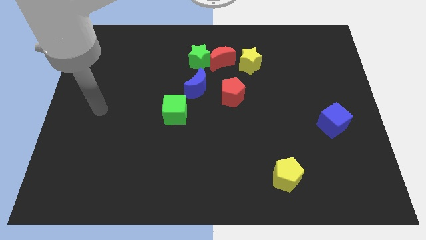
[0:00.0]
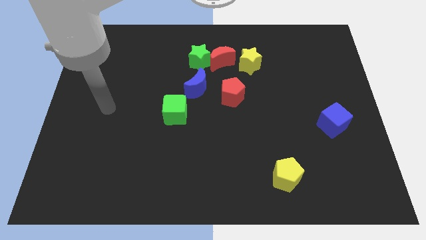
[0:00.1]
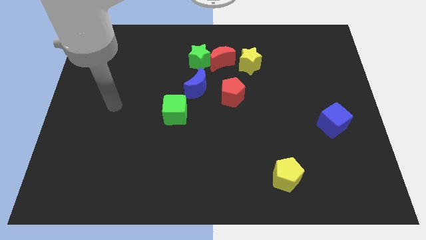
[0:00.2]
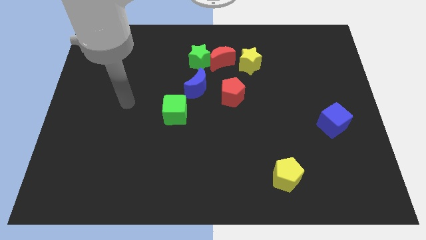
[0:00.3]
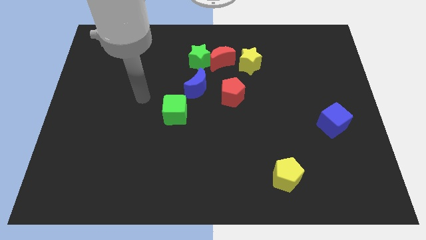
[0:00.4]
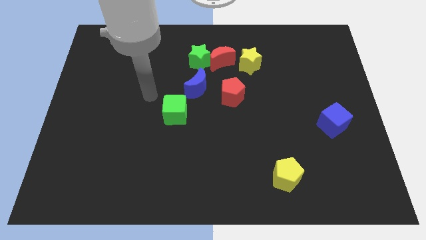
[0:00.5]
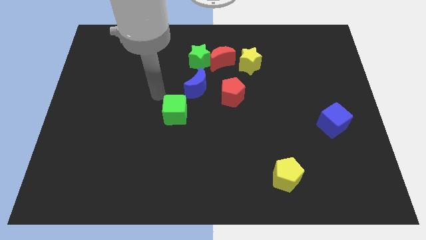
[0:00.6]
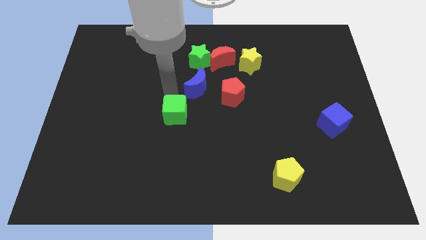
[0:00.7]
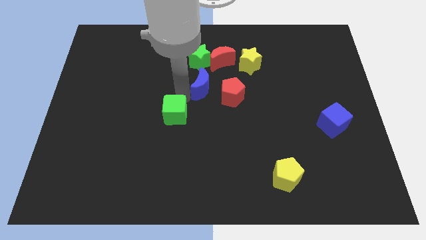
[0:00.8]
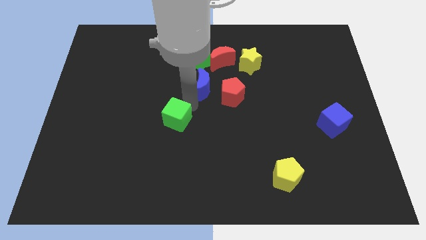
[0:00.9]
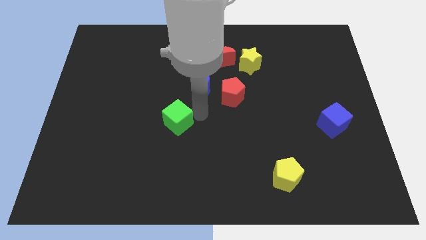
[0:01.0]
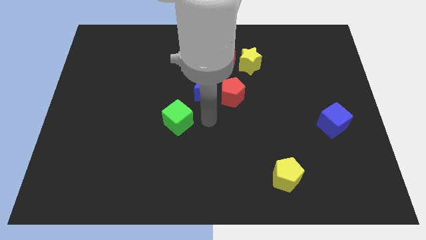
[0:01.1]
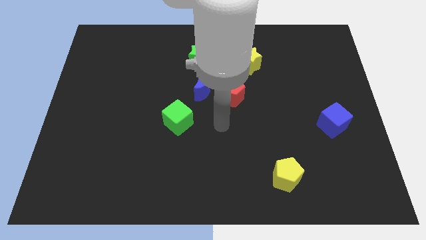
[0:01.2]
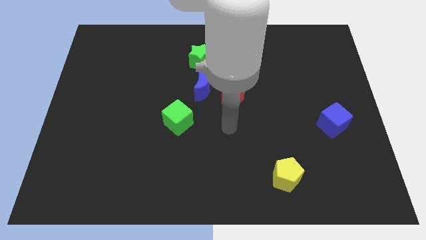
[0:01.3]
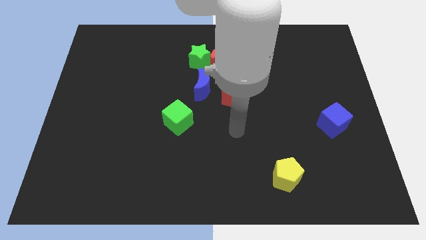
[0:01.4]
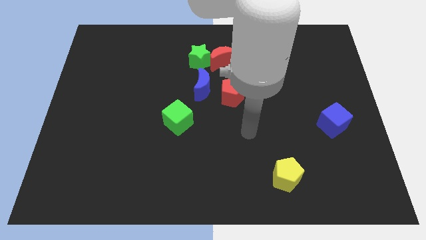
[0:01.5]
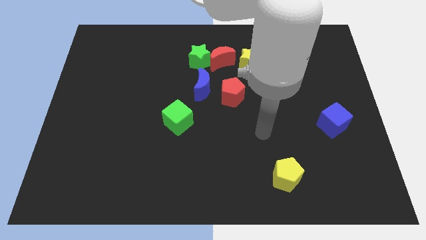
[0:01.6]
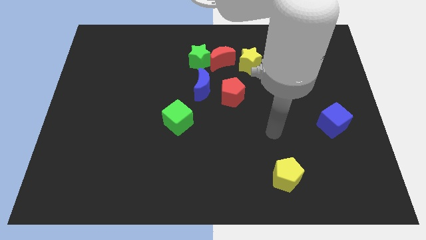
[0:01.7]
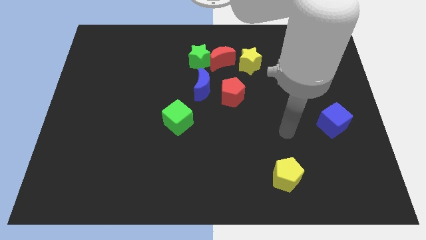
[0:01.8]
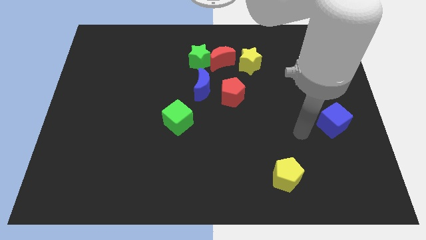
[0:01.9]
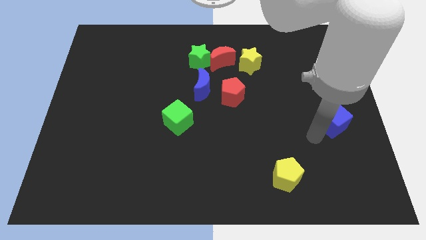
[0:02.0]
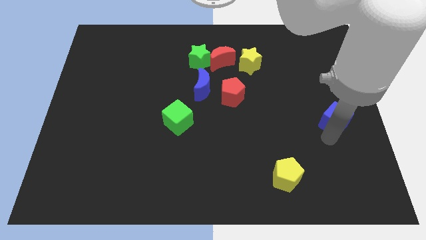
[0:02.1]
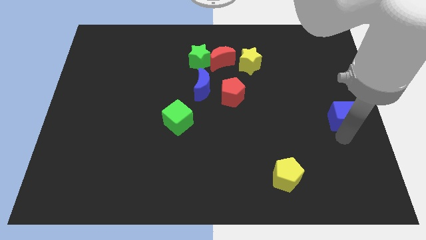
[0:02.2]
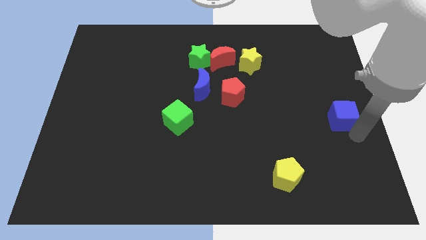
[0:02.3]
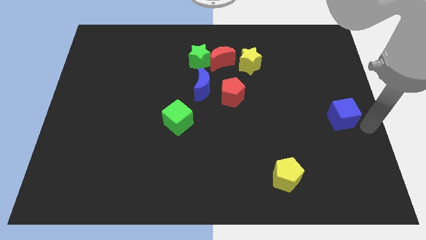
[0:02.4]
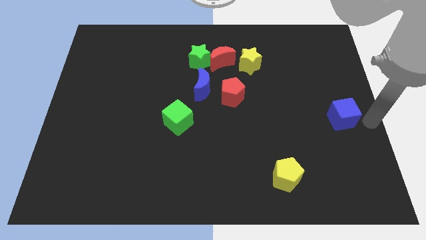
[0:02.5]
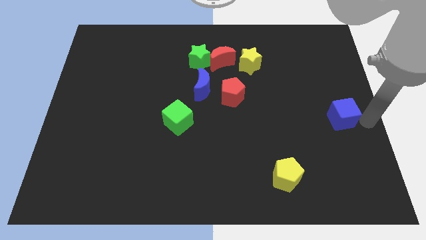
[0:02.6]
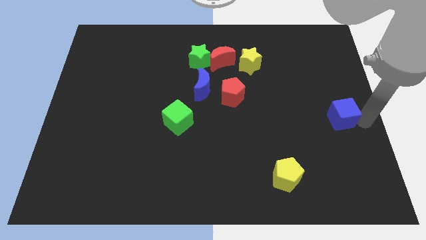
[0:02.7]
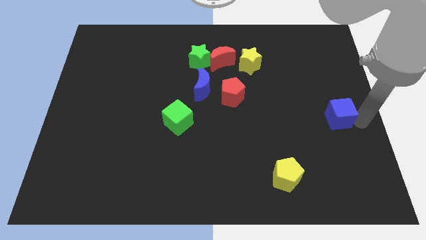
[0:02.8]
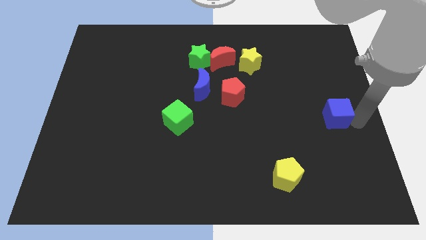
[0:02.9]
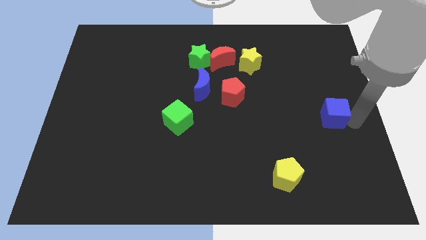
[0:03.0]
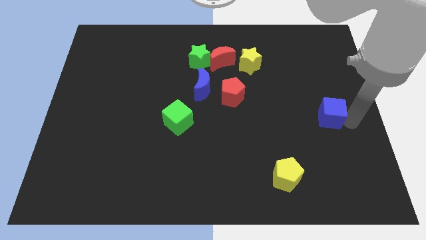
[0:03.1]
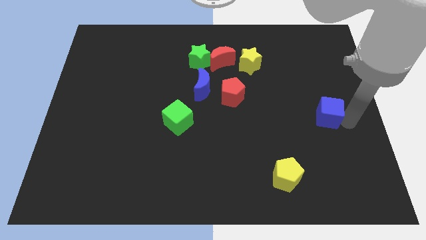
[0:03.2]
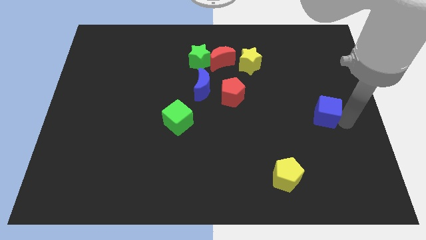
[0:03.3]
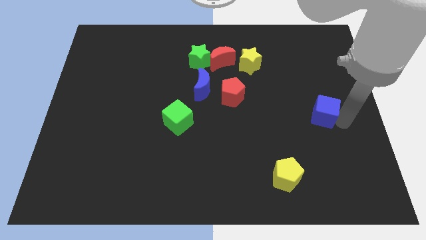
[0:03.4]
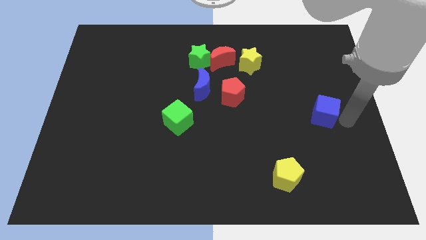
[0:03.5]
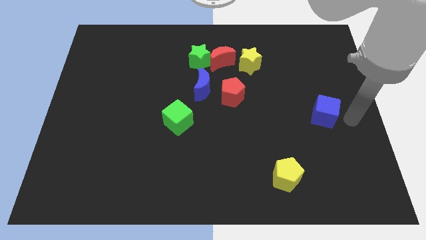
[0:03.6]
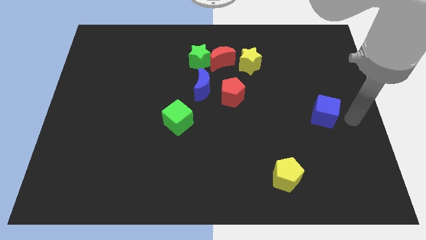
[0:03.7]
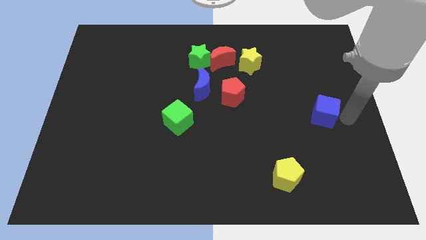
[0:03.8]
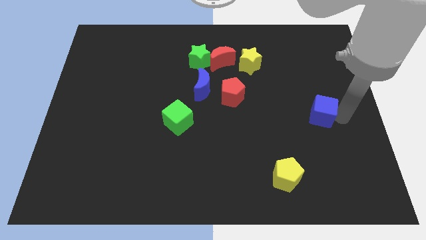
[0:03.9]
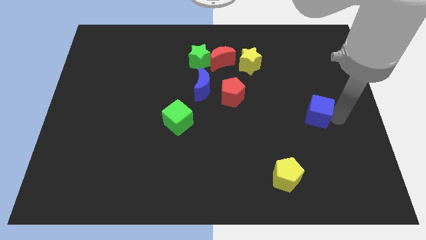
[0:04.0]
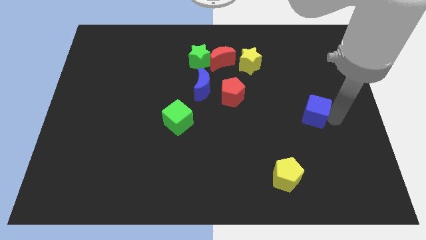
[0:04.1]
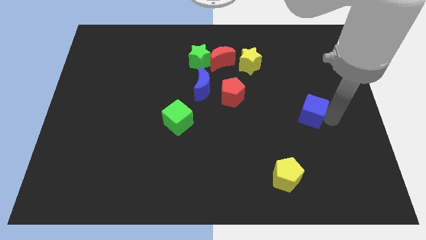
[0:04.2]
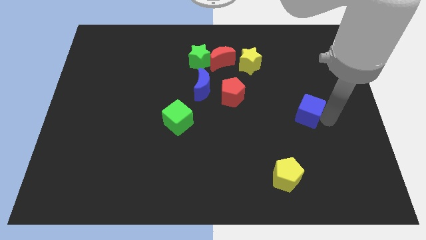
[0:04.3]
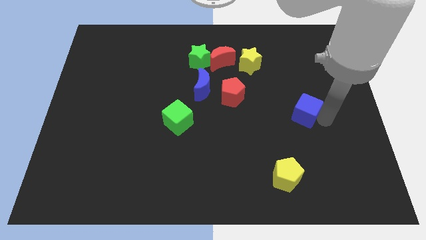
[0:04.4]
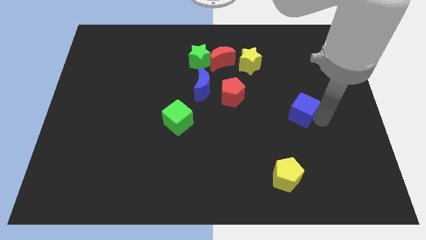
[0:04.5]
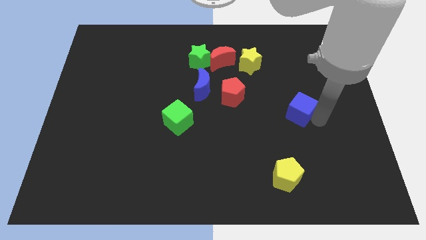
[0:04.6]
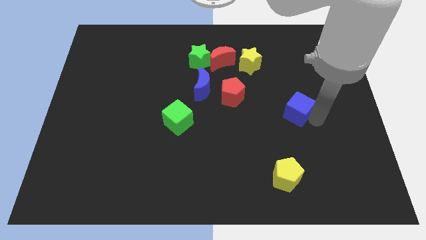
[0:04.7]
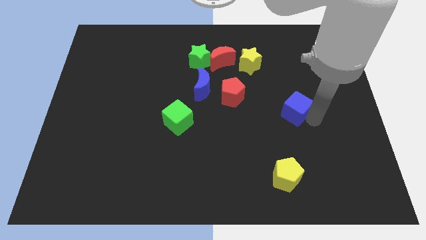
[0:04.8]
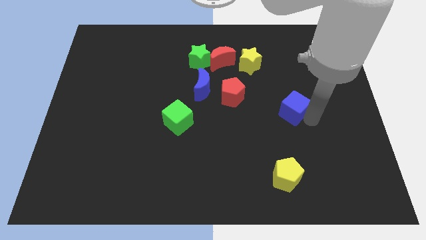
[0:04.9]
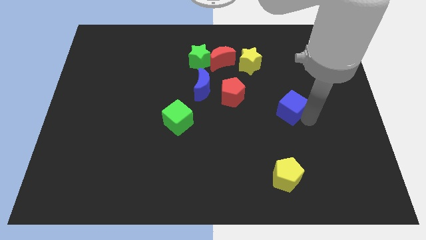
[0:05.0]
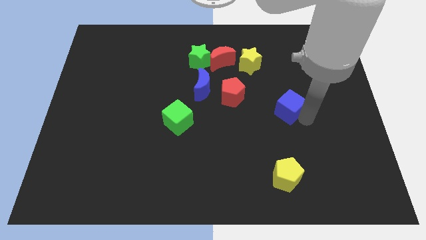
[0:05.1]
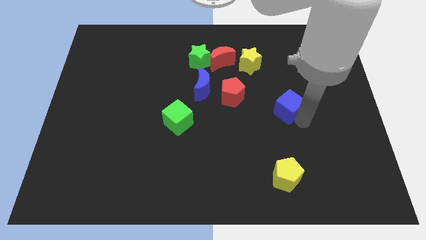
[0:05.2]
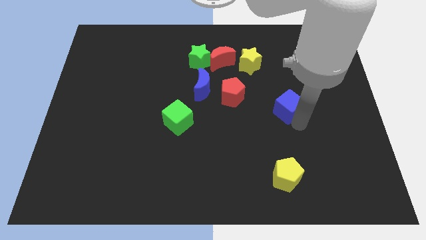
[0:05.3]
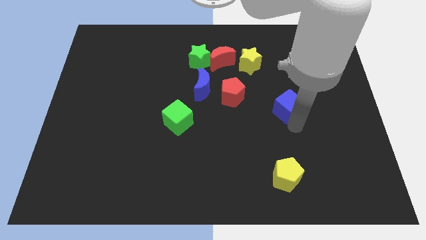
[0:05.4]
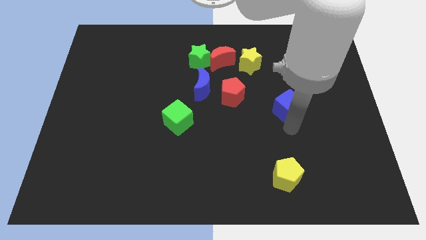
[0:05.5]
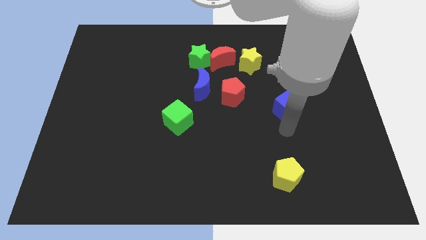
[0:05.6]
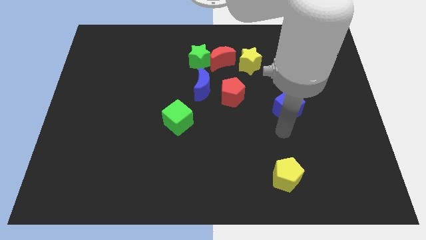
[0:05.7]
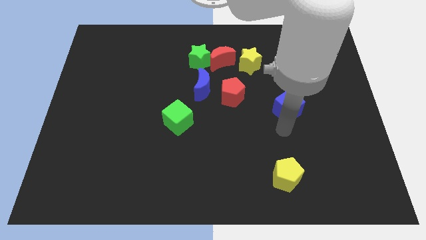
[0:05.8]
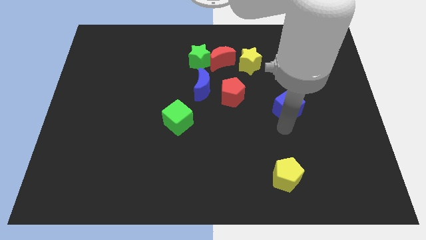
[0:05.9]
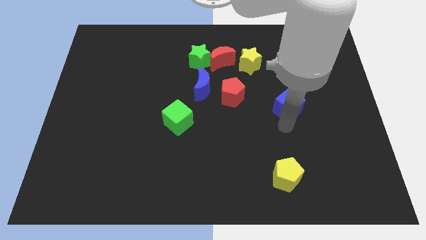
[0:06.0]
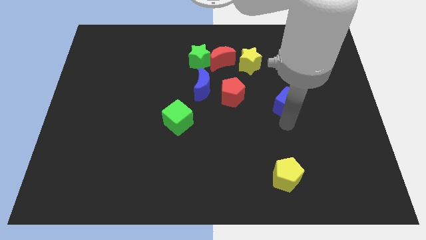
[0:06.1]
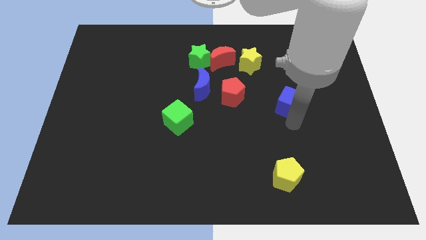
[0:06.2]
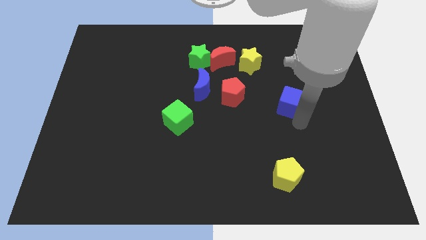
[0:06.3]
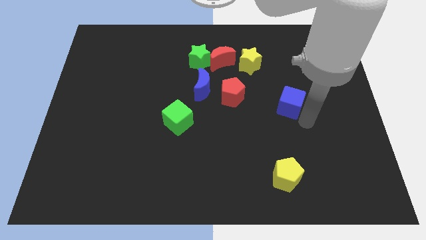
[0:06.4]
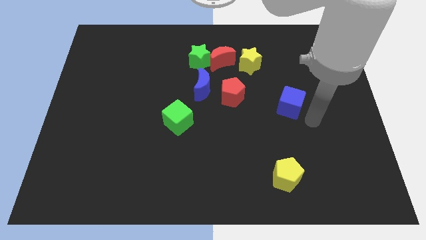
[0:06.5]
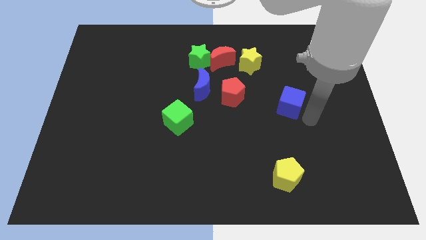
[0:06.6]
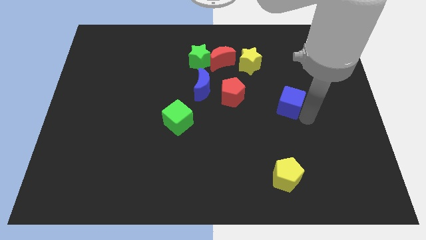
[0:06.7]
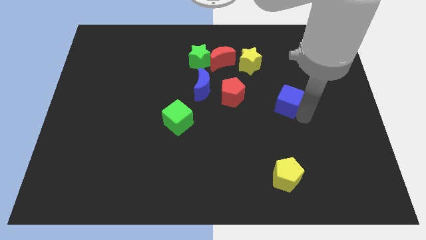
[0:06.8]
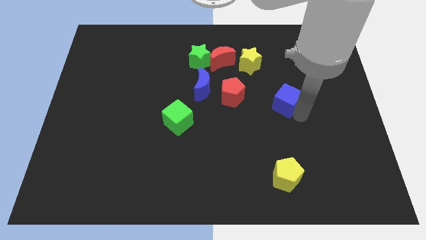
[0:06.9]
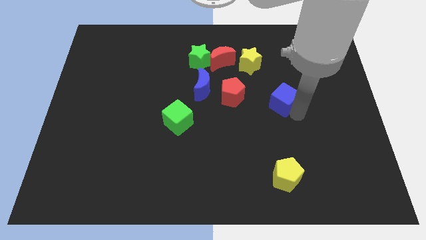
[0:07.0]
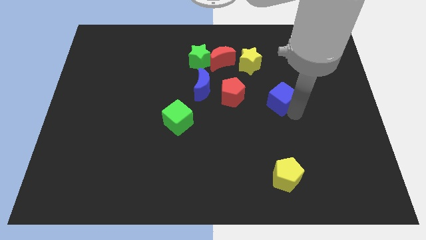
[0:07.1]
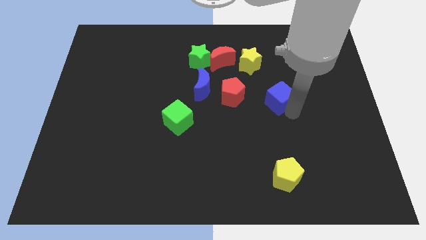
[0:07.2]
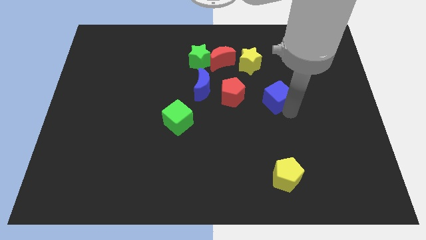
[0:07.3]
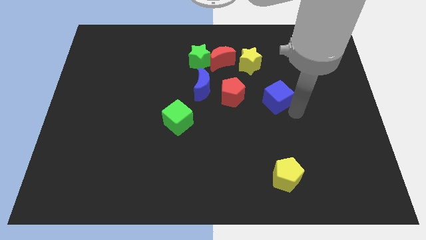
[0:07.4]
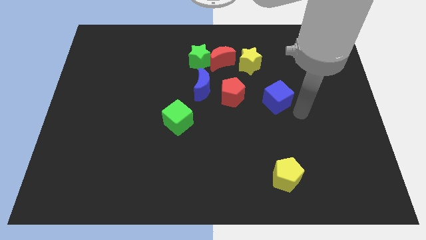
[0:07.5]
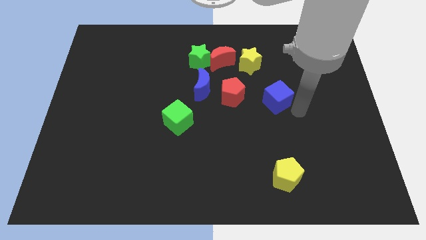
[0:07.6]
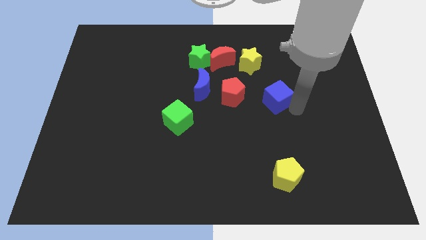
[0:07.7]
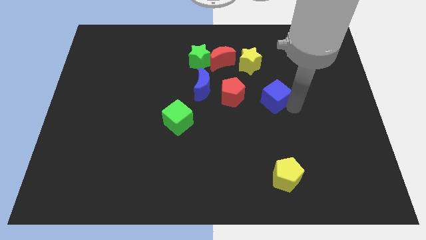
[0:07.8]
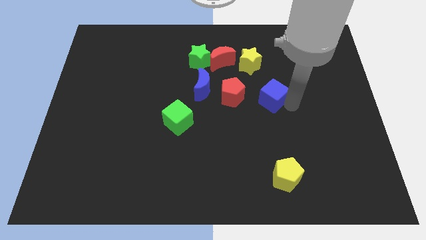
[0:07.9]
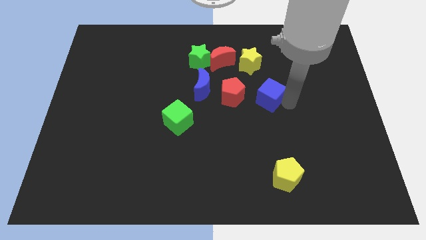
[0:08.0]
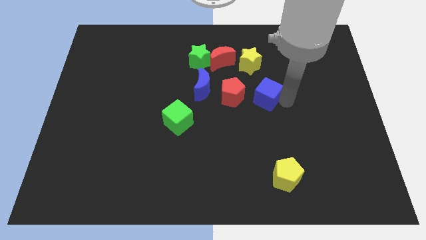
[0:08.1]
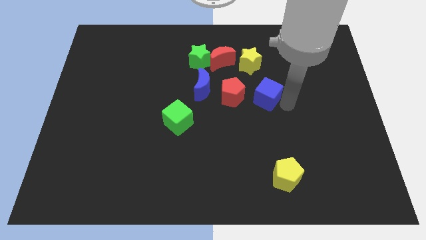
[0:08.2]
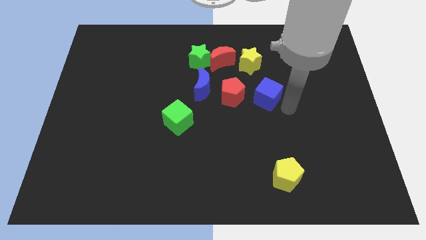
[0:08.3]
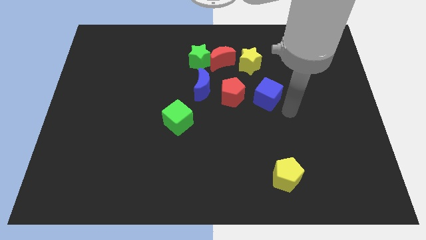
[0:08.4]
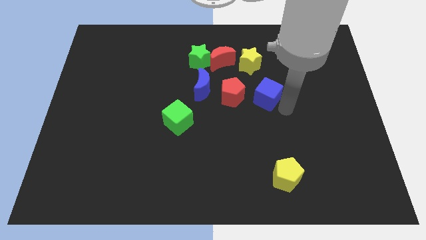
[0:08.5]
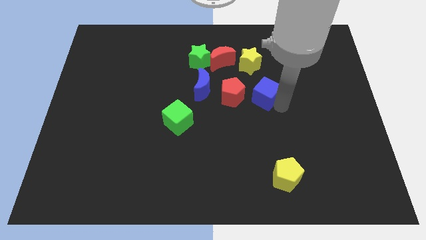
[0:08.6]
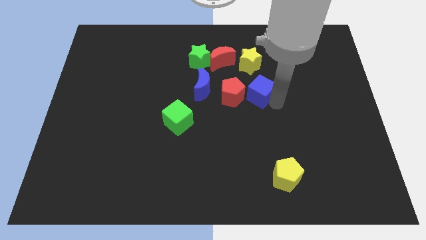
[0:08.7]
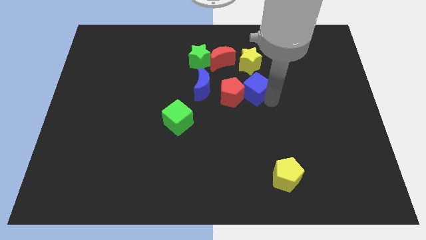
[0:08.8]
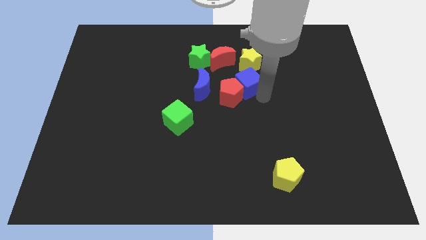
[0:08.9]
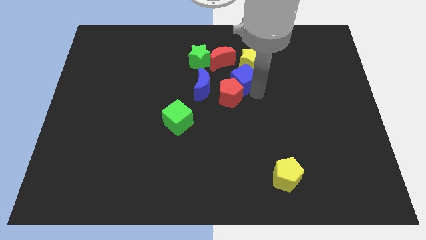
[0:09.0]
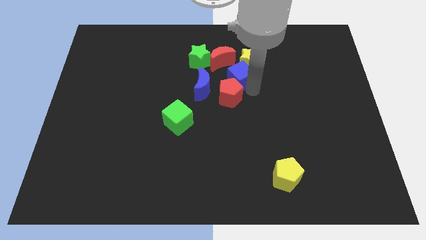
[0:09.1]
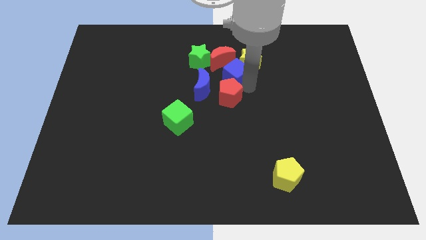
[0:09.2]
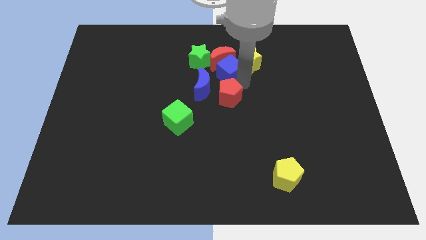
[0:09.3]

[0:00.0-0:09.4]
move the blue cube close to the red moon
